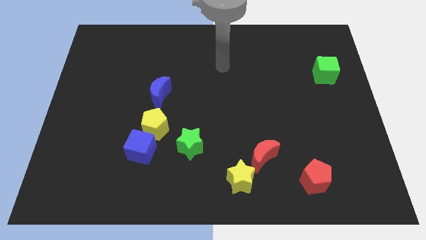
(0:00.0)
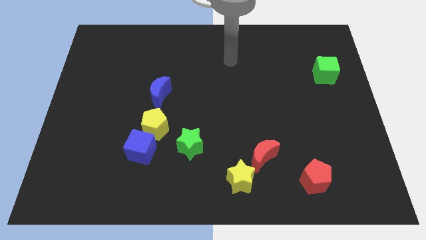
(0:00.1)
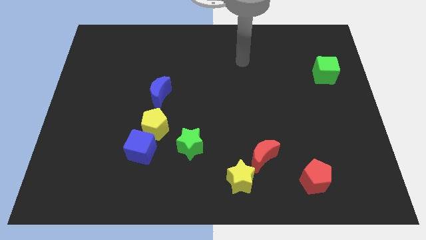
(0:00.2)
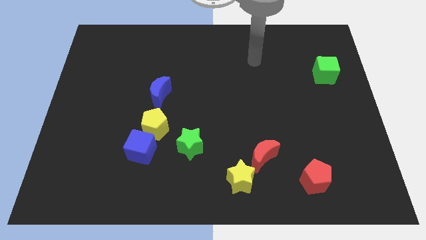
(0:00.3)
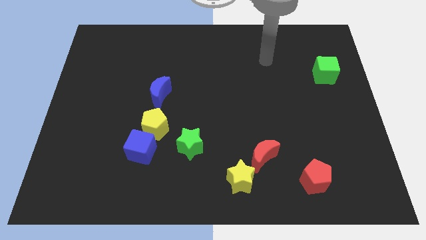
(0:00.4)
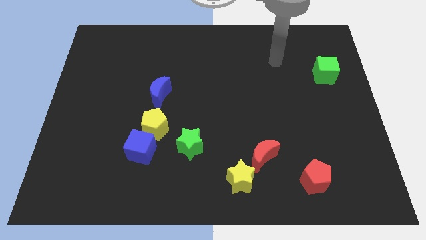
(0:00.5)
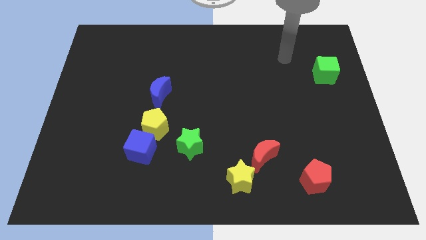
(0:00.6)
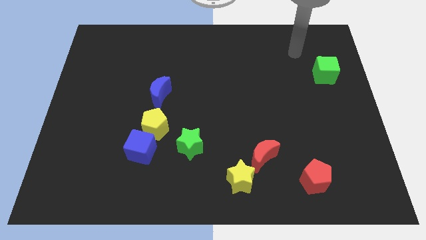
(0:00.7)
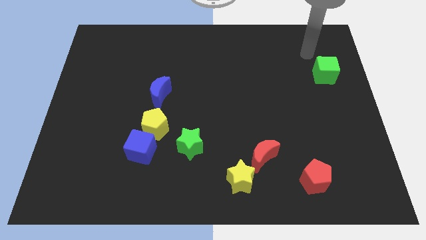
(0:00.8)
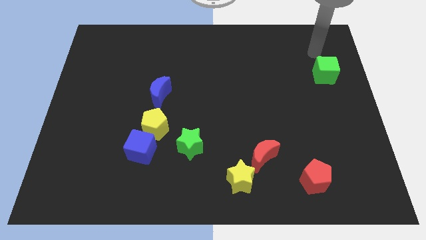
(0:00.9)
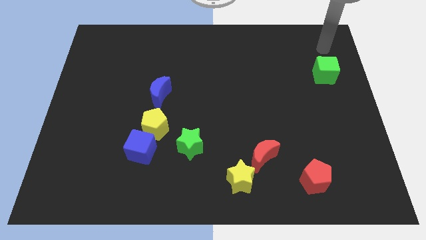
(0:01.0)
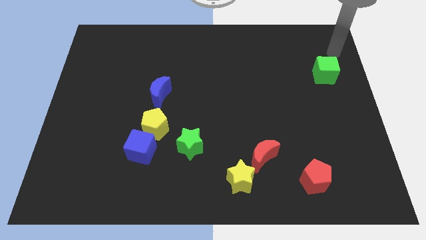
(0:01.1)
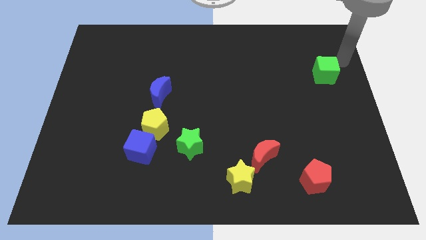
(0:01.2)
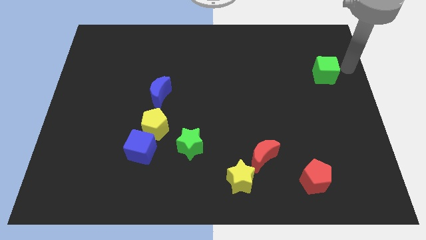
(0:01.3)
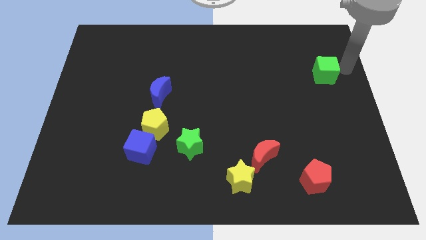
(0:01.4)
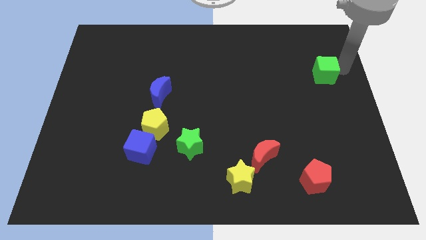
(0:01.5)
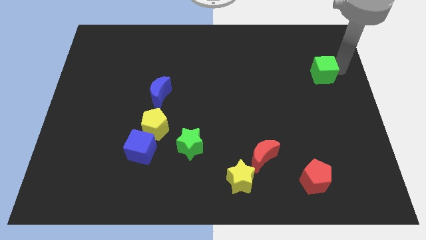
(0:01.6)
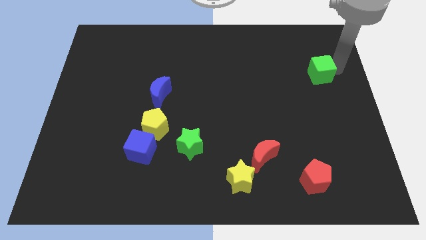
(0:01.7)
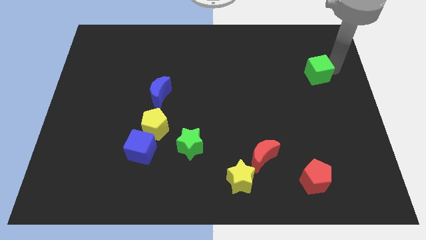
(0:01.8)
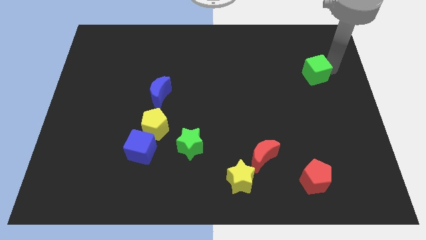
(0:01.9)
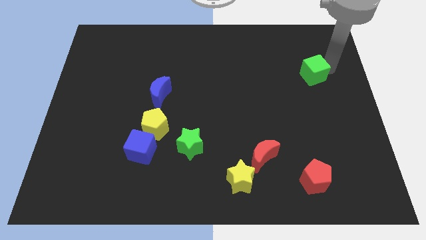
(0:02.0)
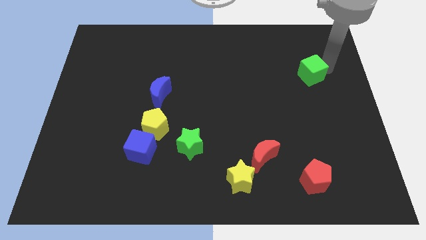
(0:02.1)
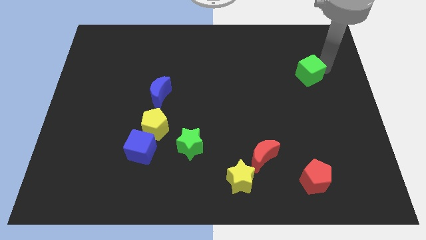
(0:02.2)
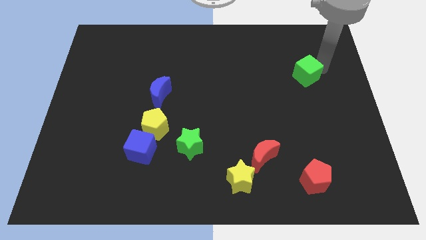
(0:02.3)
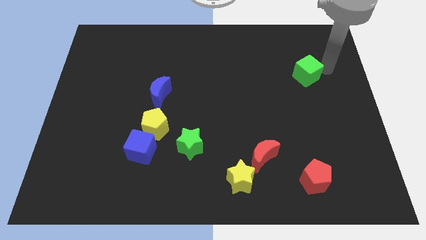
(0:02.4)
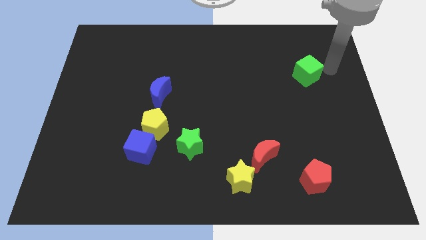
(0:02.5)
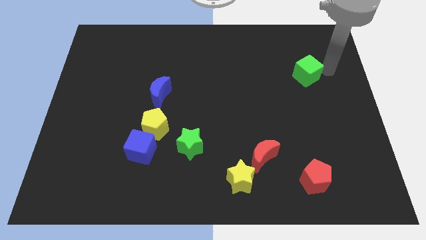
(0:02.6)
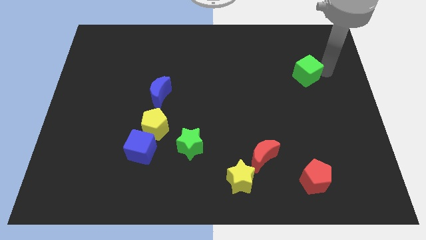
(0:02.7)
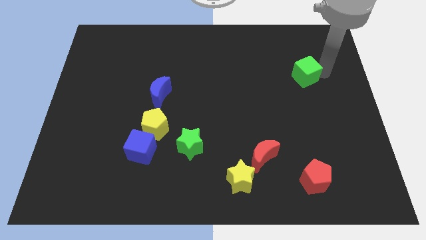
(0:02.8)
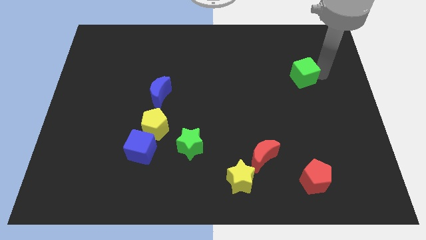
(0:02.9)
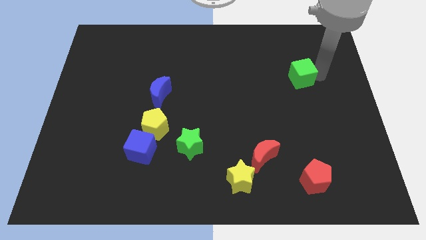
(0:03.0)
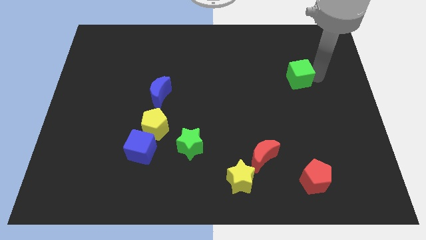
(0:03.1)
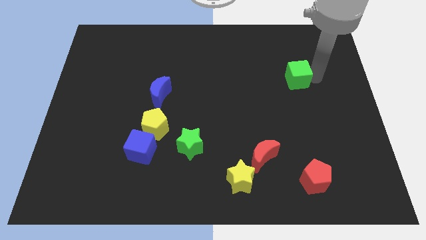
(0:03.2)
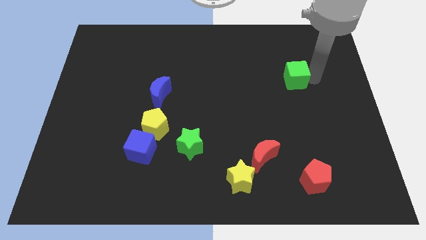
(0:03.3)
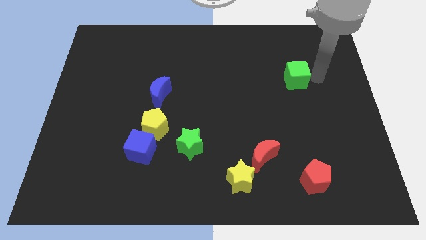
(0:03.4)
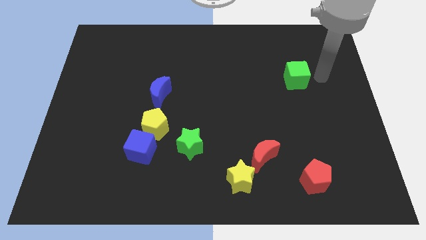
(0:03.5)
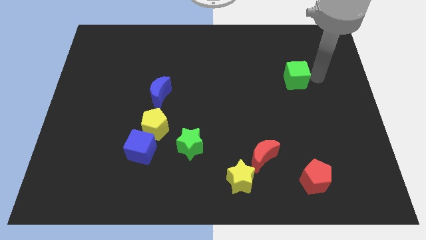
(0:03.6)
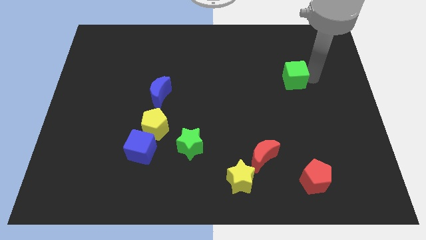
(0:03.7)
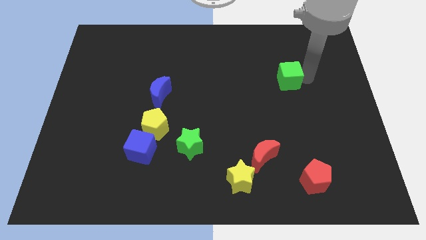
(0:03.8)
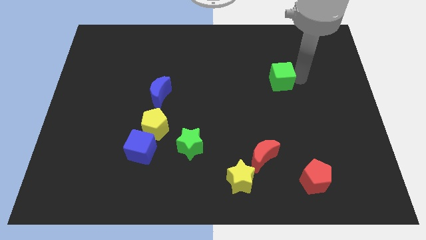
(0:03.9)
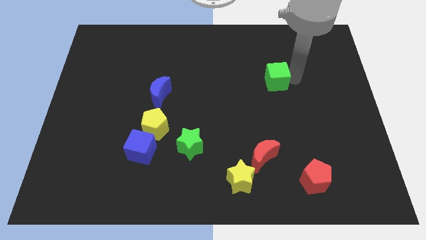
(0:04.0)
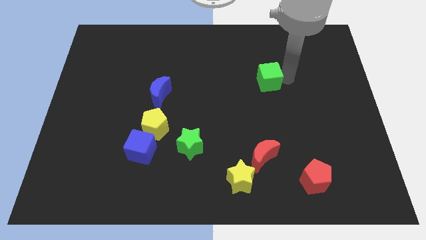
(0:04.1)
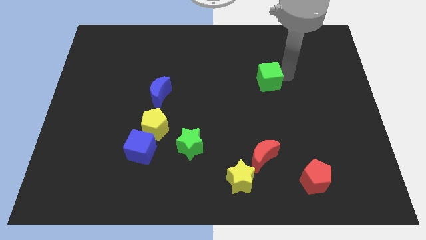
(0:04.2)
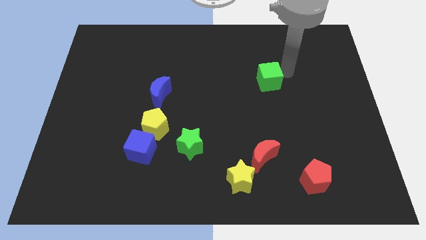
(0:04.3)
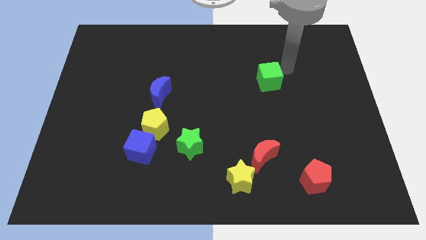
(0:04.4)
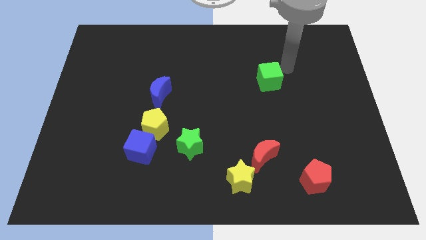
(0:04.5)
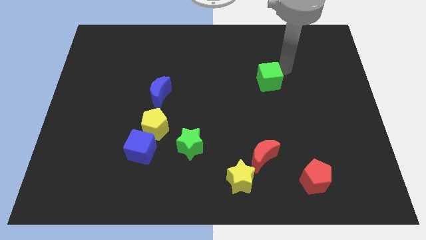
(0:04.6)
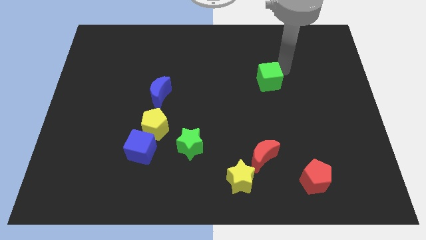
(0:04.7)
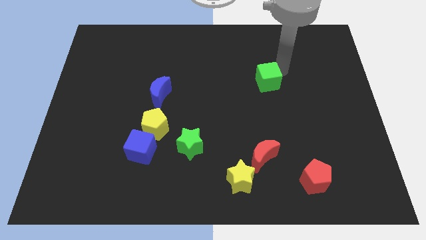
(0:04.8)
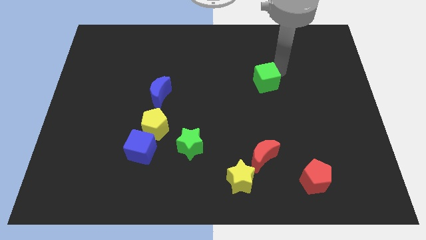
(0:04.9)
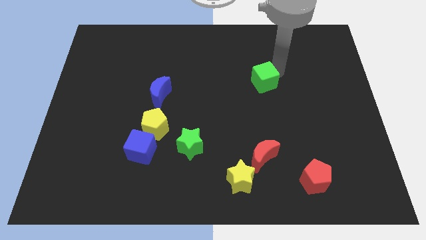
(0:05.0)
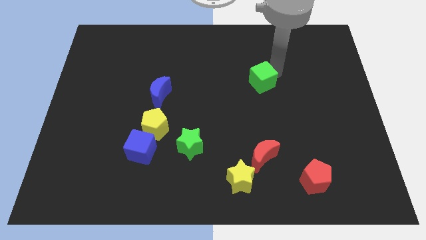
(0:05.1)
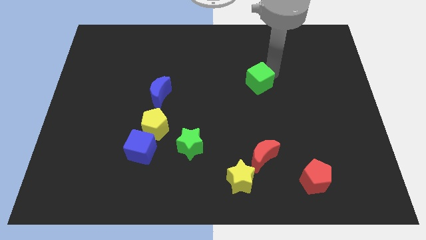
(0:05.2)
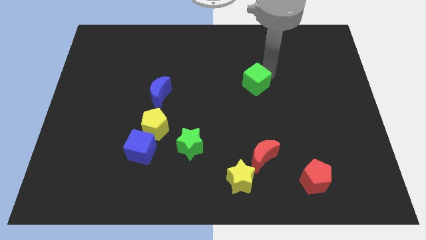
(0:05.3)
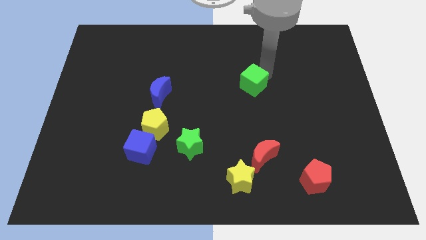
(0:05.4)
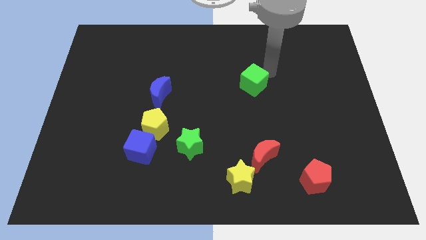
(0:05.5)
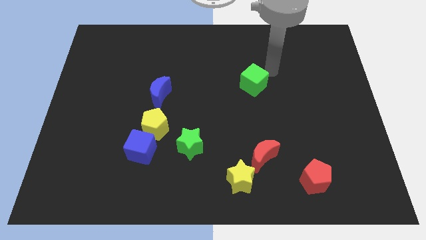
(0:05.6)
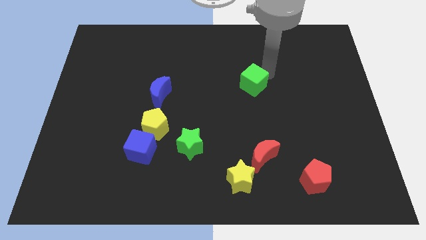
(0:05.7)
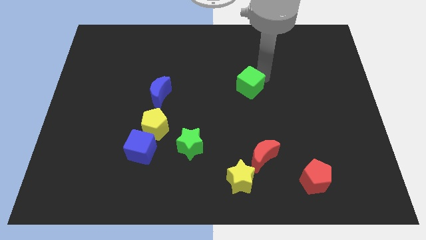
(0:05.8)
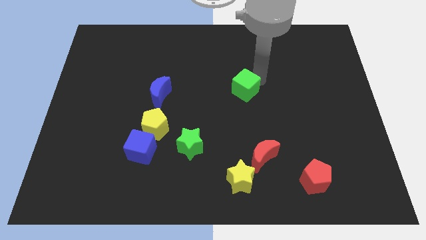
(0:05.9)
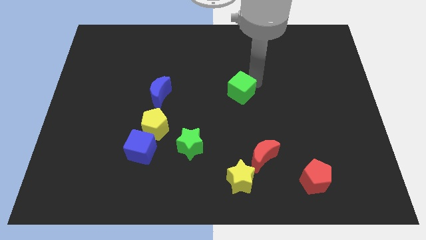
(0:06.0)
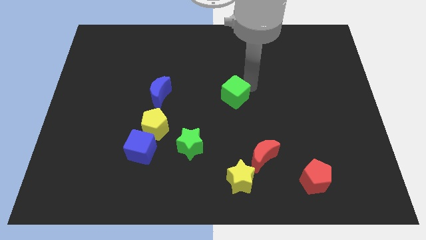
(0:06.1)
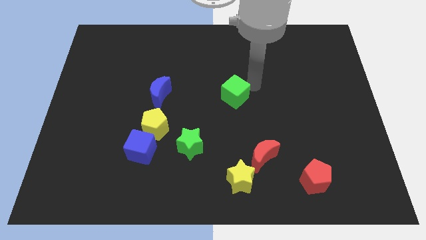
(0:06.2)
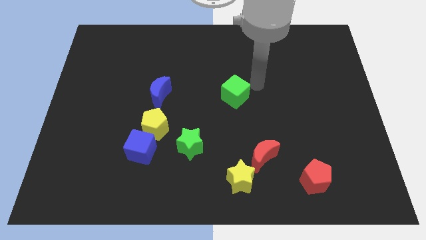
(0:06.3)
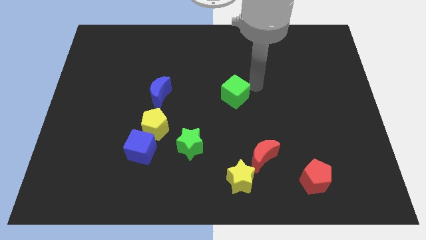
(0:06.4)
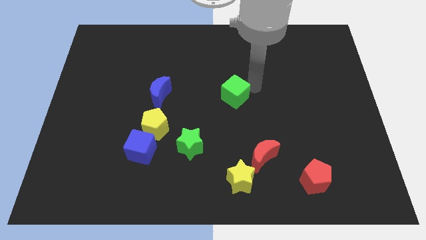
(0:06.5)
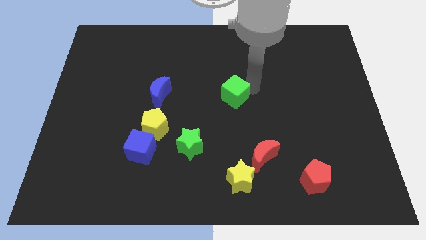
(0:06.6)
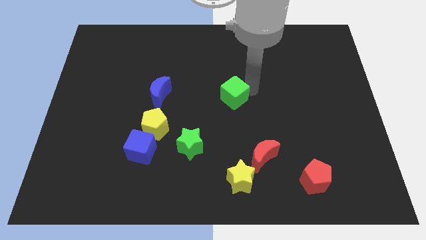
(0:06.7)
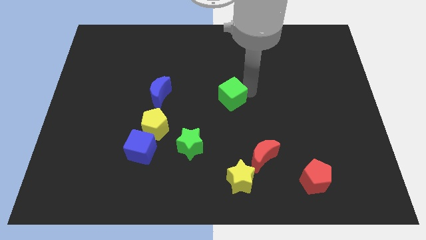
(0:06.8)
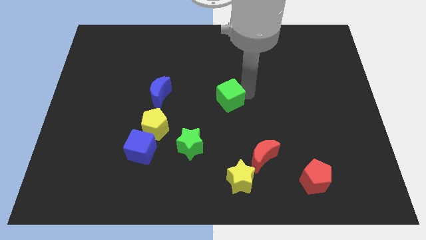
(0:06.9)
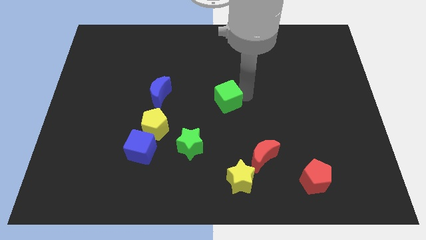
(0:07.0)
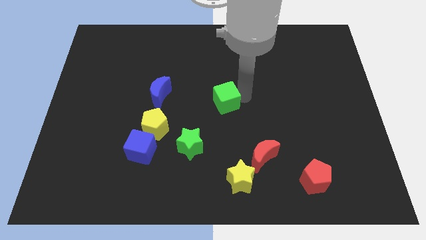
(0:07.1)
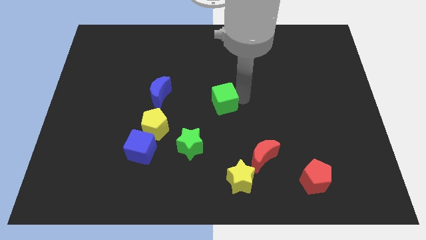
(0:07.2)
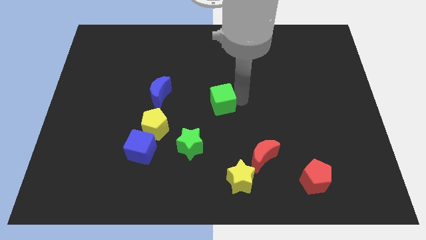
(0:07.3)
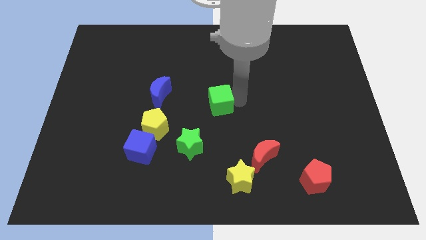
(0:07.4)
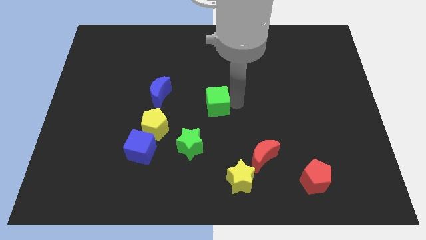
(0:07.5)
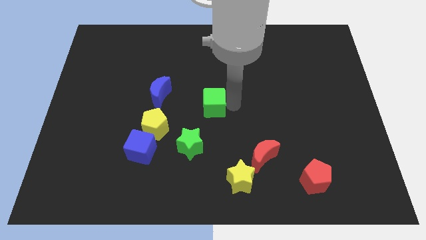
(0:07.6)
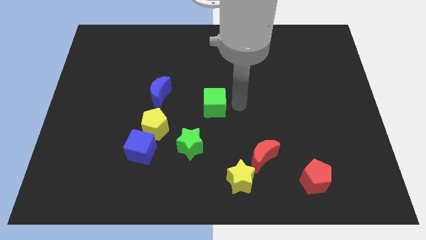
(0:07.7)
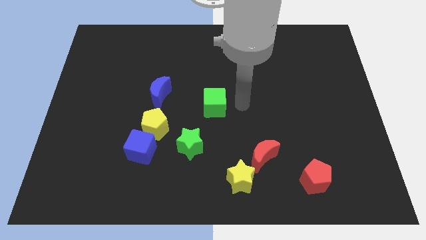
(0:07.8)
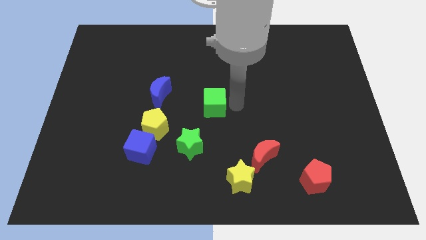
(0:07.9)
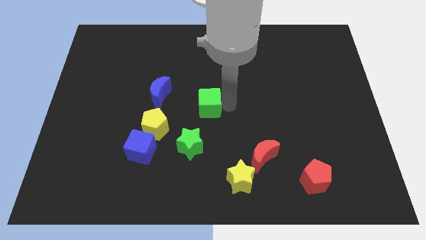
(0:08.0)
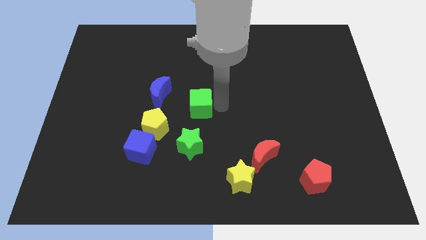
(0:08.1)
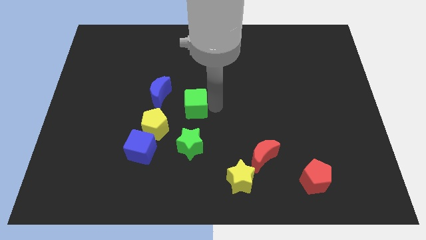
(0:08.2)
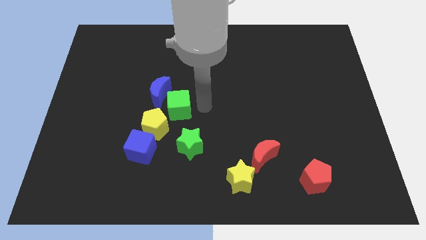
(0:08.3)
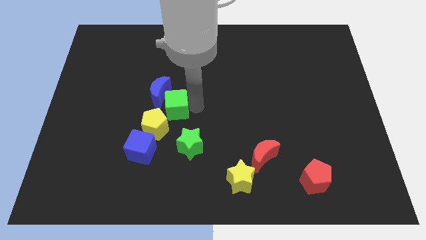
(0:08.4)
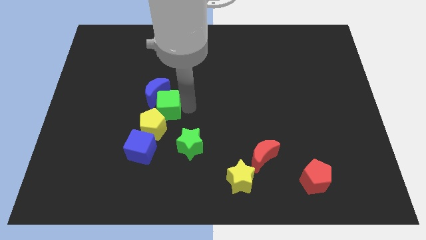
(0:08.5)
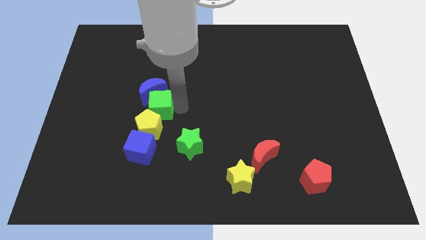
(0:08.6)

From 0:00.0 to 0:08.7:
push the green cube to the top of the blue cube
